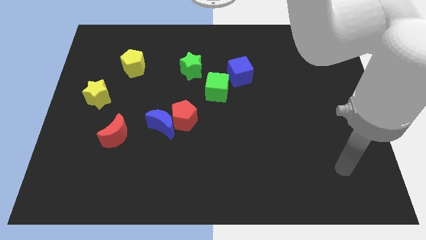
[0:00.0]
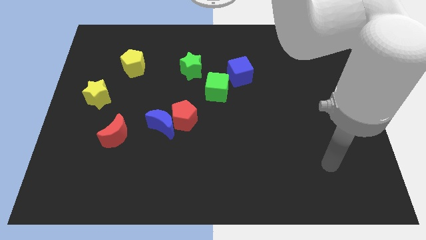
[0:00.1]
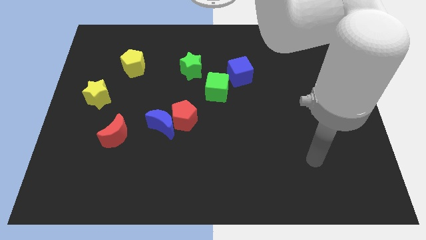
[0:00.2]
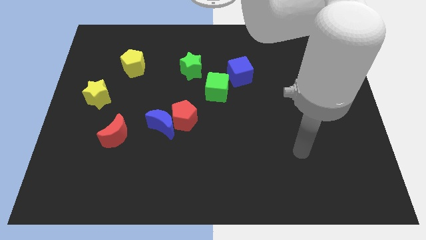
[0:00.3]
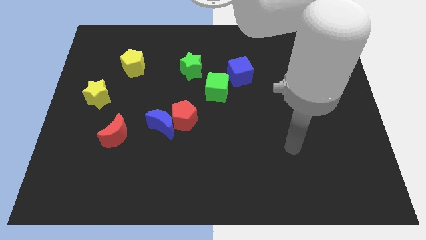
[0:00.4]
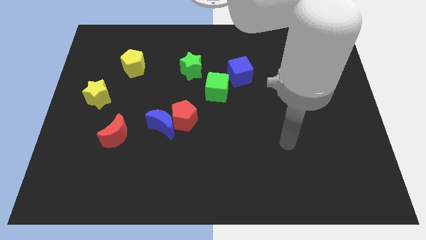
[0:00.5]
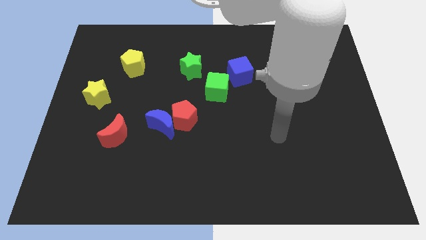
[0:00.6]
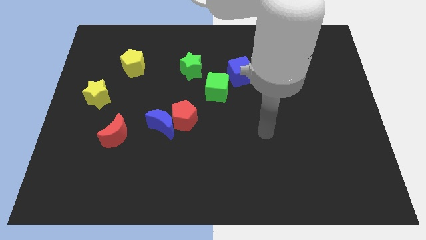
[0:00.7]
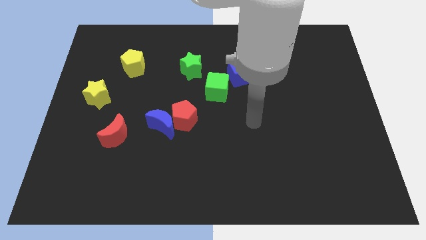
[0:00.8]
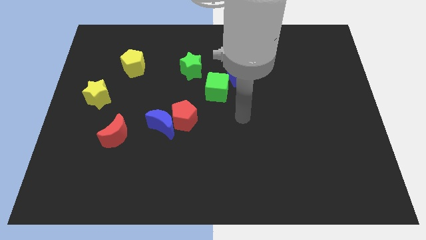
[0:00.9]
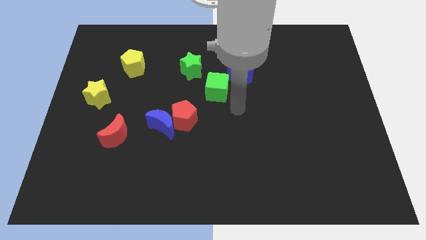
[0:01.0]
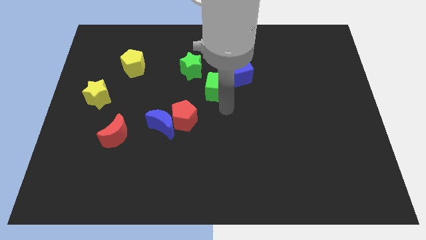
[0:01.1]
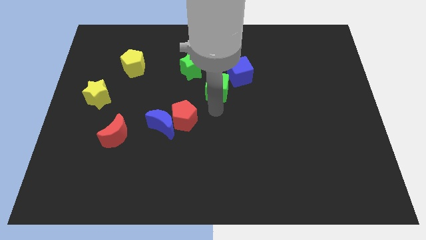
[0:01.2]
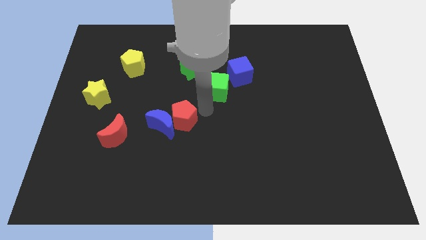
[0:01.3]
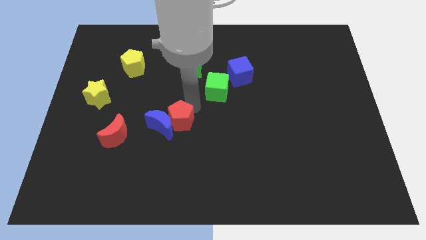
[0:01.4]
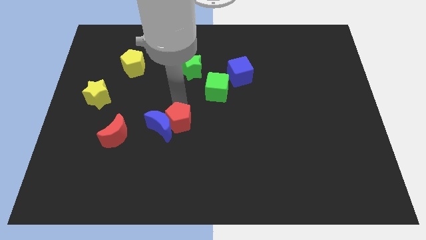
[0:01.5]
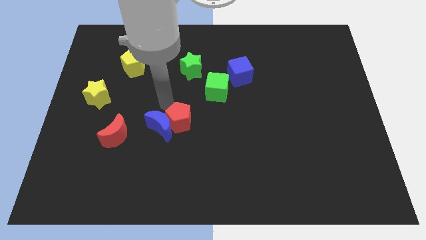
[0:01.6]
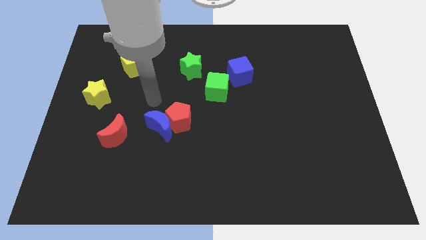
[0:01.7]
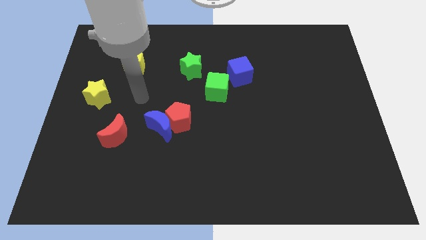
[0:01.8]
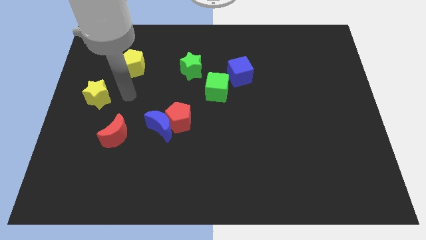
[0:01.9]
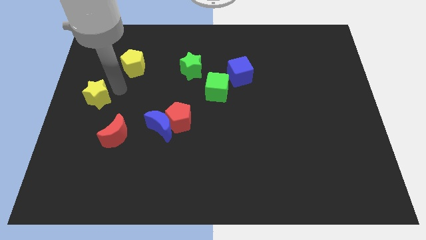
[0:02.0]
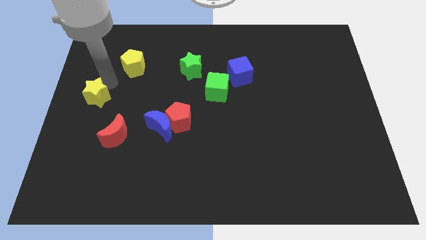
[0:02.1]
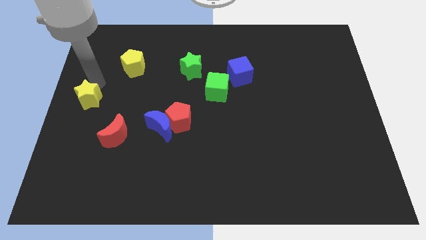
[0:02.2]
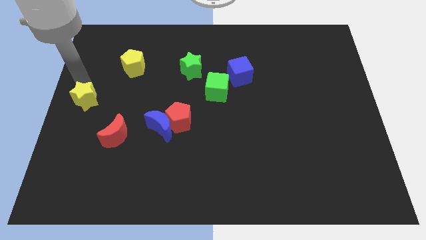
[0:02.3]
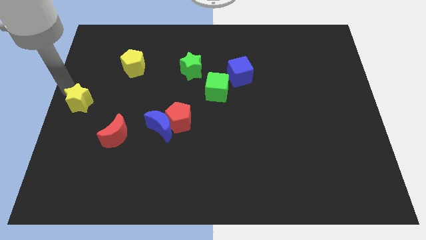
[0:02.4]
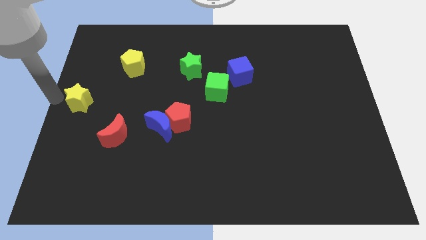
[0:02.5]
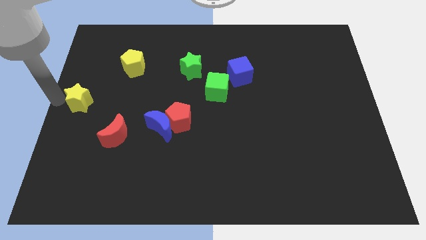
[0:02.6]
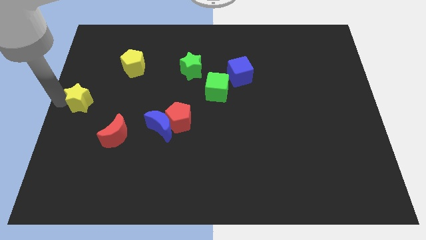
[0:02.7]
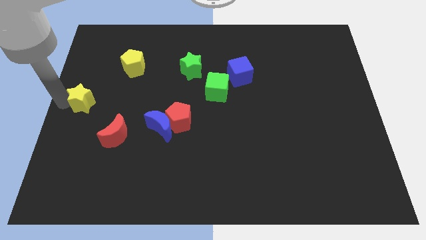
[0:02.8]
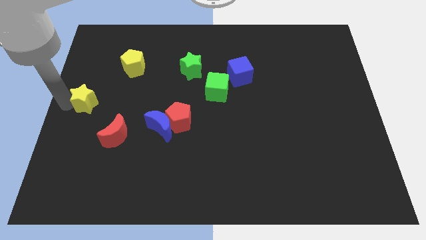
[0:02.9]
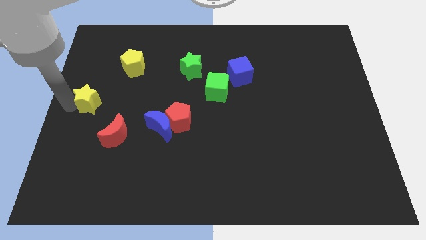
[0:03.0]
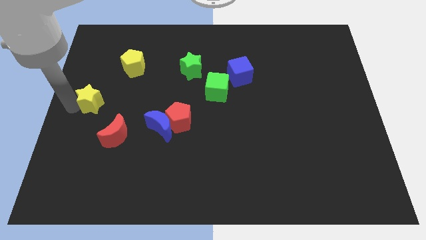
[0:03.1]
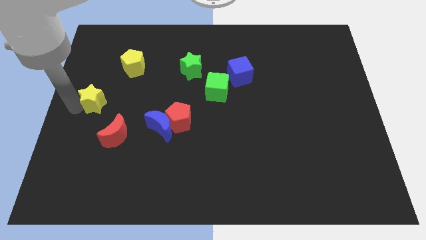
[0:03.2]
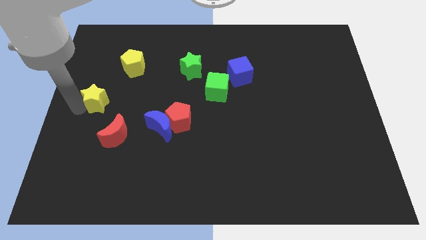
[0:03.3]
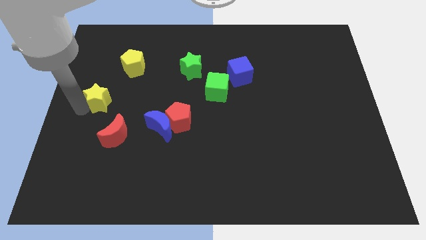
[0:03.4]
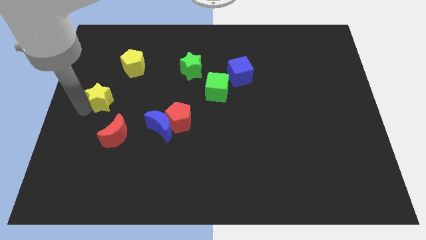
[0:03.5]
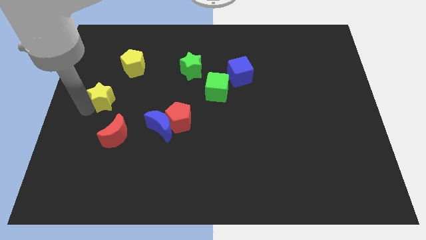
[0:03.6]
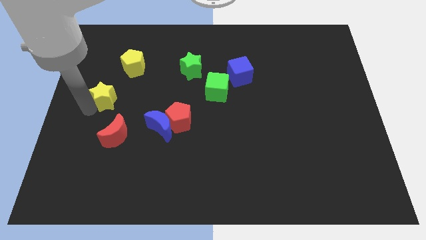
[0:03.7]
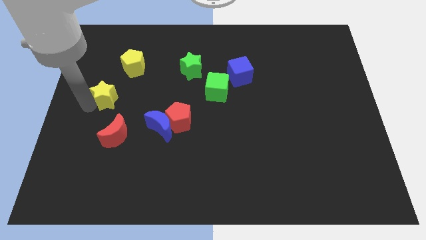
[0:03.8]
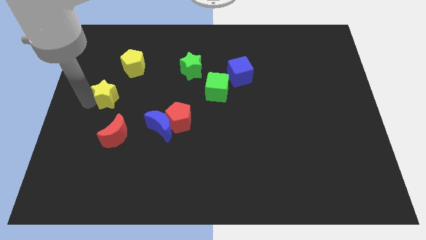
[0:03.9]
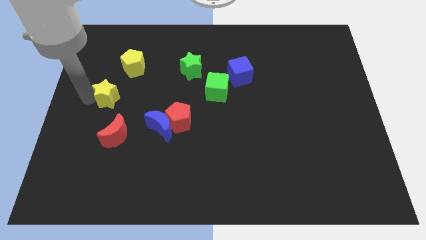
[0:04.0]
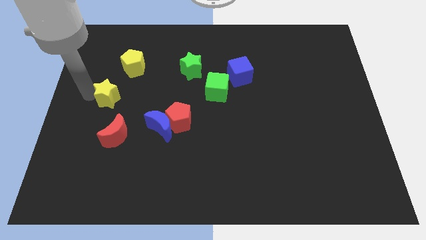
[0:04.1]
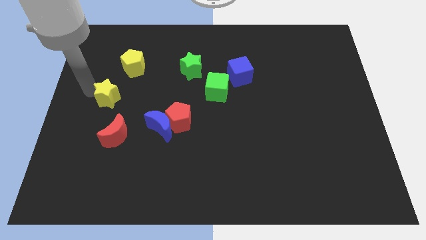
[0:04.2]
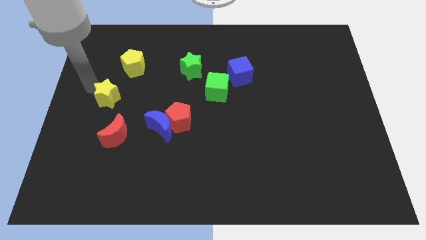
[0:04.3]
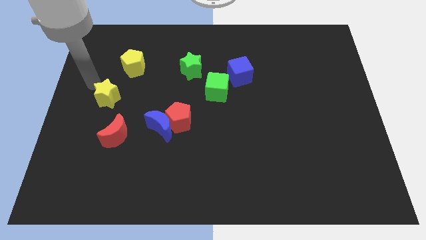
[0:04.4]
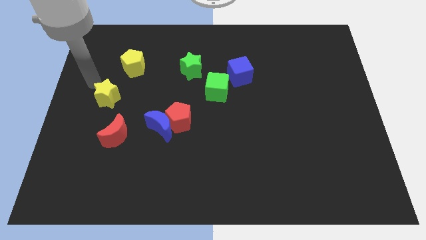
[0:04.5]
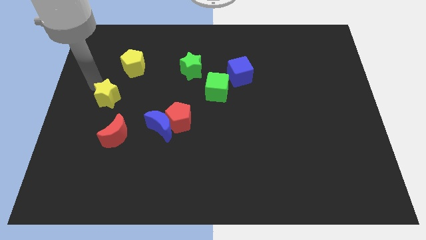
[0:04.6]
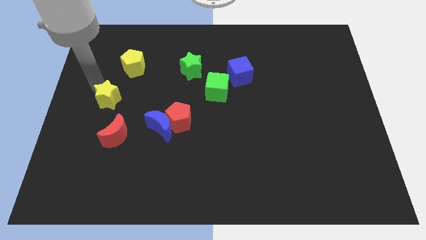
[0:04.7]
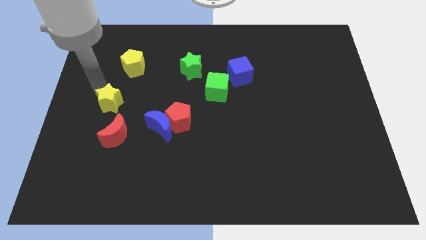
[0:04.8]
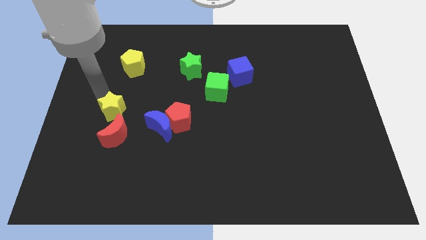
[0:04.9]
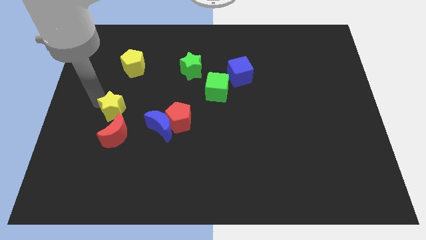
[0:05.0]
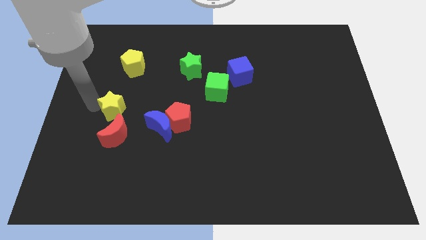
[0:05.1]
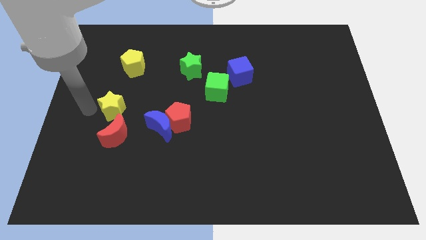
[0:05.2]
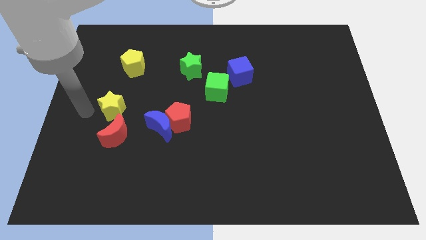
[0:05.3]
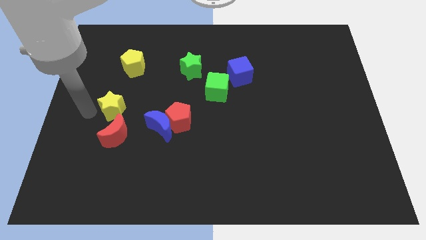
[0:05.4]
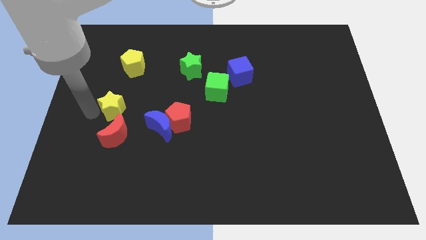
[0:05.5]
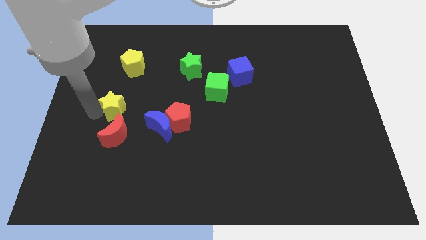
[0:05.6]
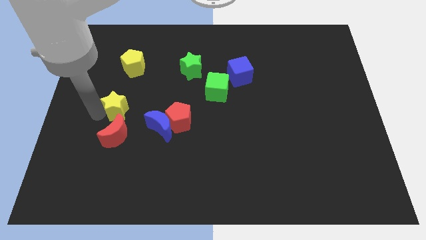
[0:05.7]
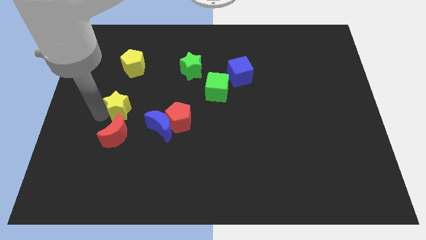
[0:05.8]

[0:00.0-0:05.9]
move the yellow star to the top left of the blue moon

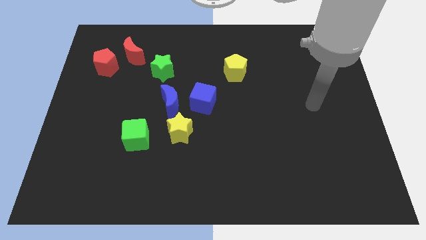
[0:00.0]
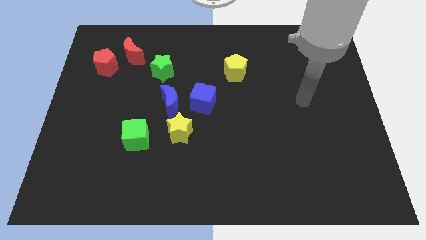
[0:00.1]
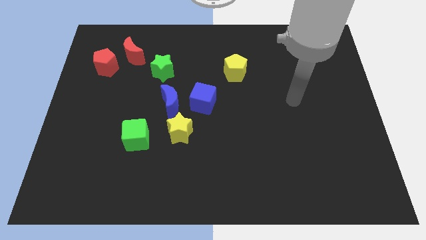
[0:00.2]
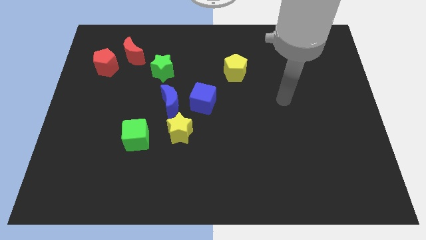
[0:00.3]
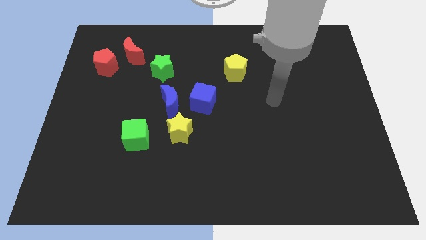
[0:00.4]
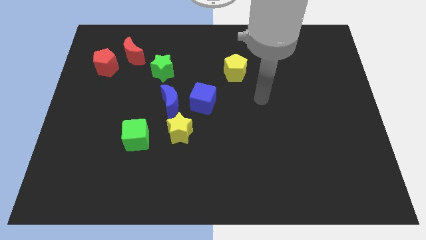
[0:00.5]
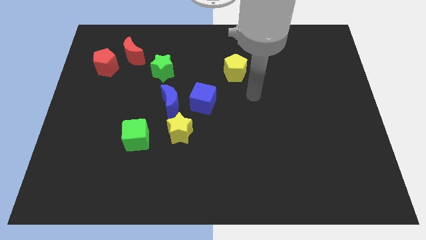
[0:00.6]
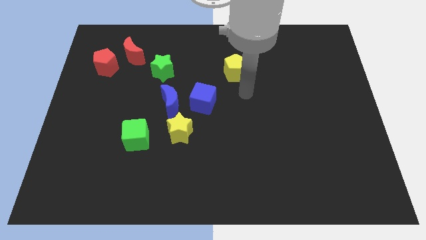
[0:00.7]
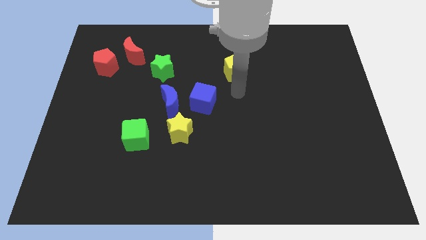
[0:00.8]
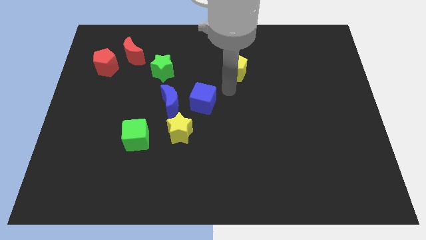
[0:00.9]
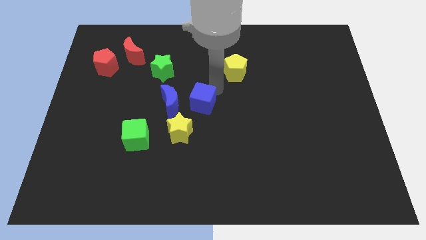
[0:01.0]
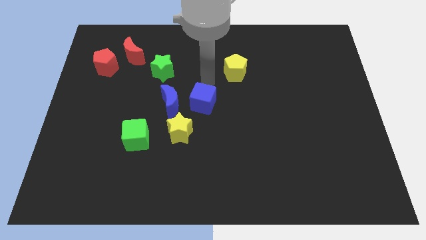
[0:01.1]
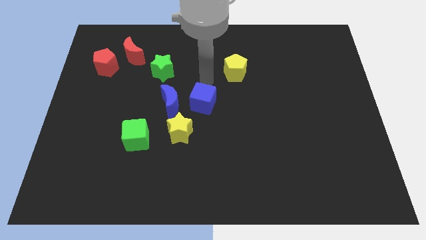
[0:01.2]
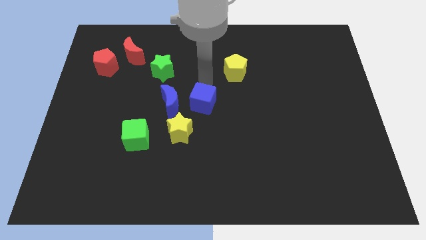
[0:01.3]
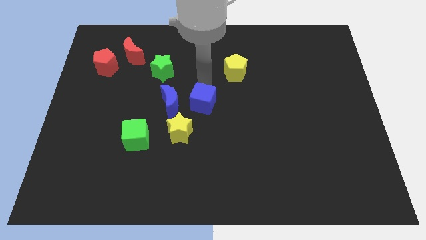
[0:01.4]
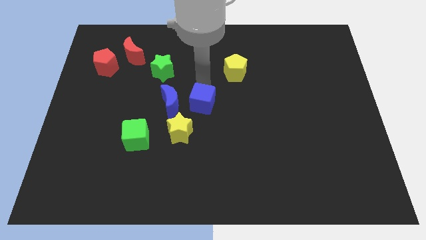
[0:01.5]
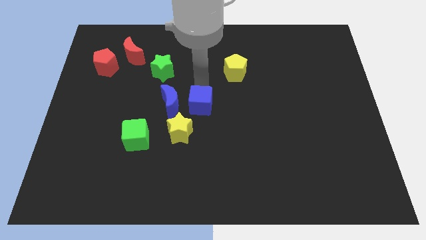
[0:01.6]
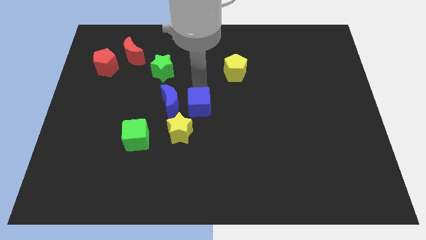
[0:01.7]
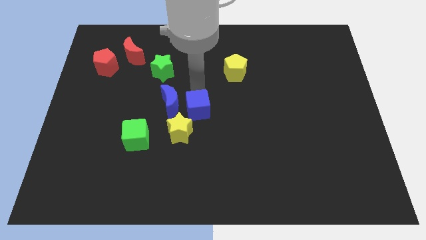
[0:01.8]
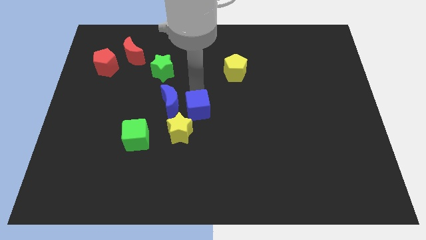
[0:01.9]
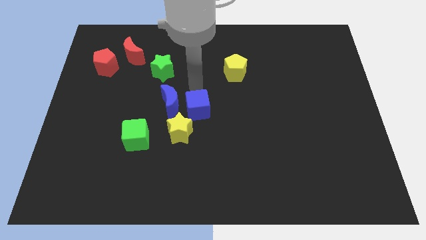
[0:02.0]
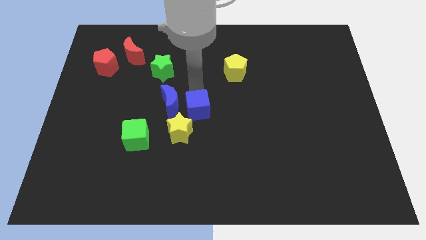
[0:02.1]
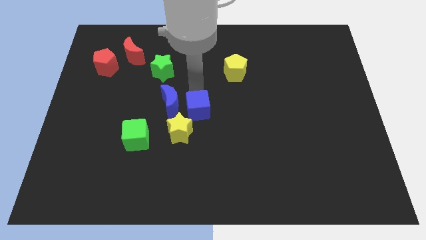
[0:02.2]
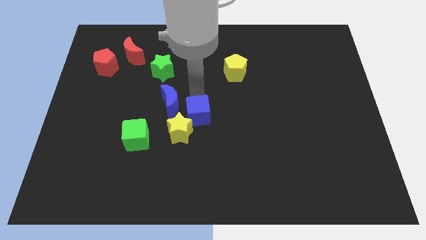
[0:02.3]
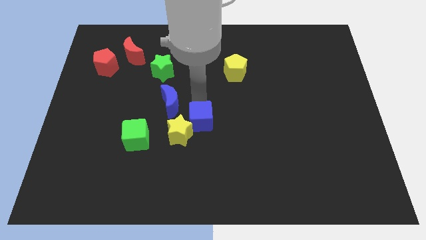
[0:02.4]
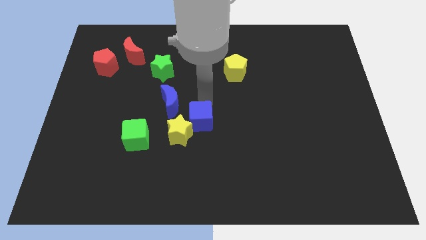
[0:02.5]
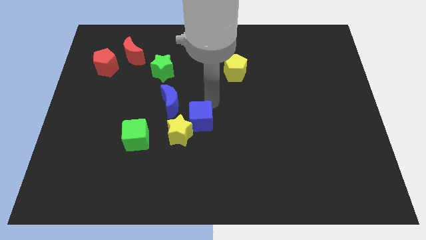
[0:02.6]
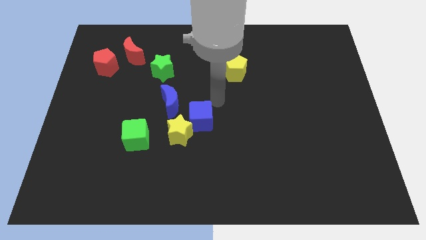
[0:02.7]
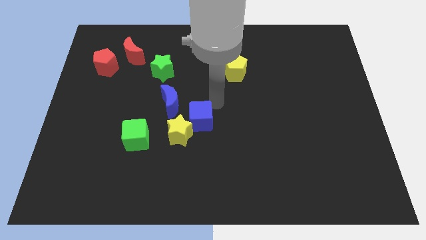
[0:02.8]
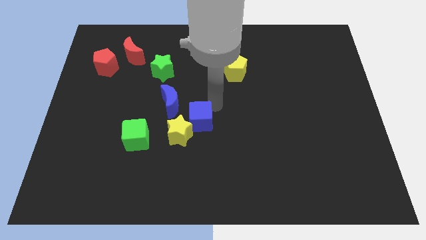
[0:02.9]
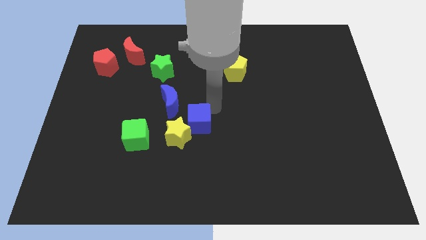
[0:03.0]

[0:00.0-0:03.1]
slide the blue cube just right of the green cube
